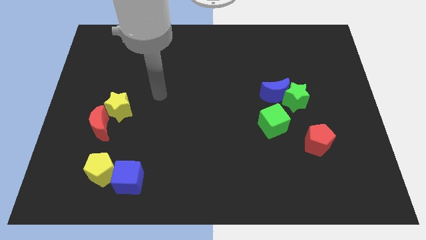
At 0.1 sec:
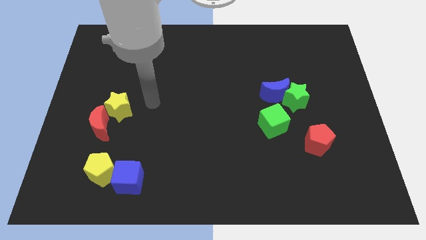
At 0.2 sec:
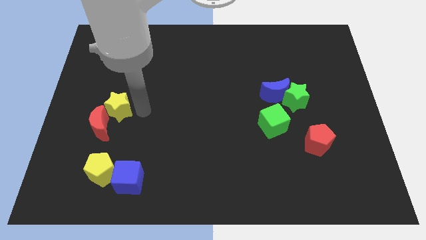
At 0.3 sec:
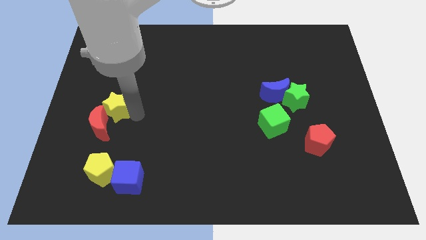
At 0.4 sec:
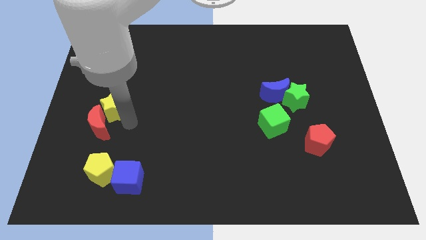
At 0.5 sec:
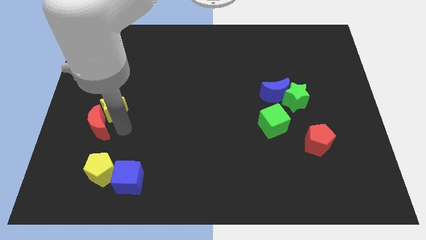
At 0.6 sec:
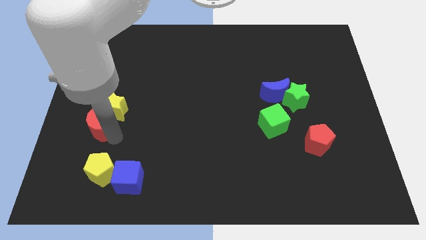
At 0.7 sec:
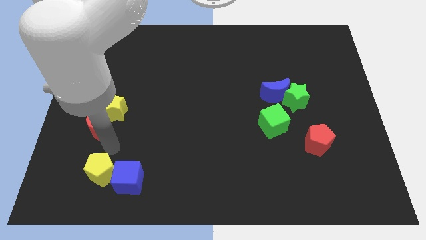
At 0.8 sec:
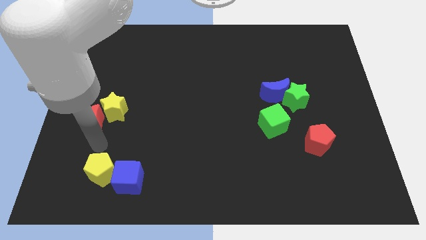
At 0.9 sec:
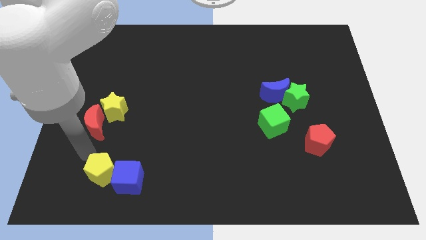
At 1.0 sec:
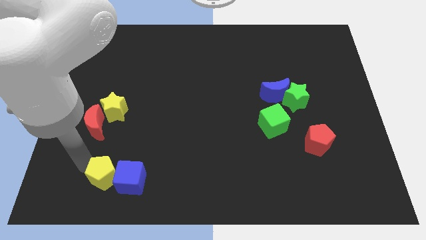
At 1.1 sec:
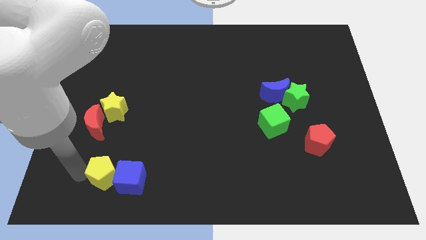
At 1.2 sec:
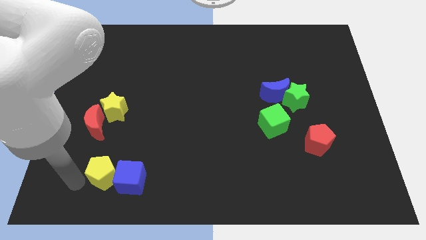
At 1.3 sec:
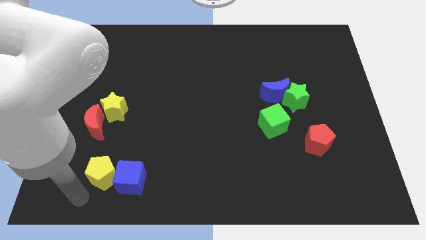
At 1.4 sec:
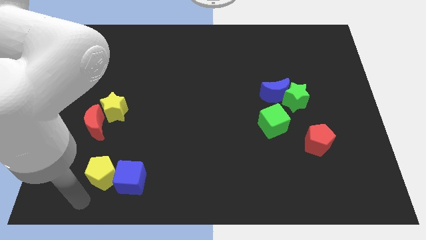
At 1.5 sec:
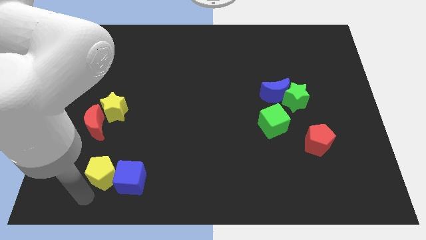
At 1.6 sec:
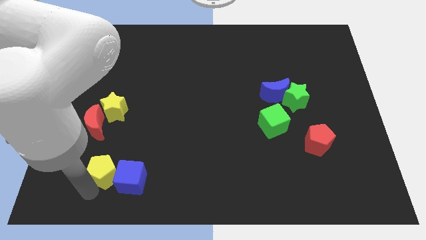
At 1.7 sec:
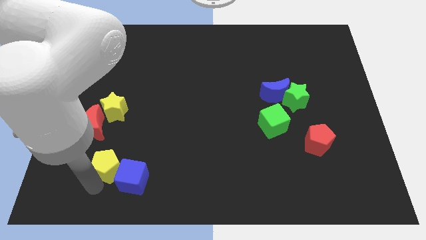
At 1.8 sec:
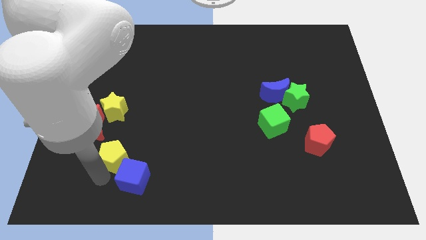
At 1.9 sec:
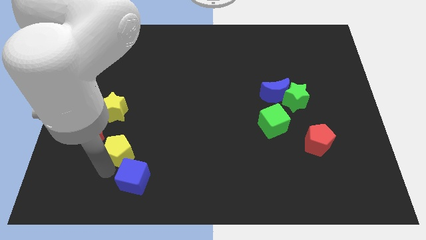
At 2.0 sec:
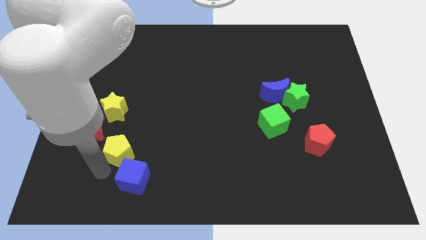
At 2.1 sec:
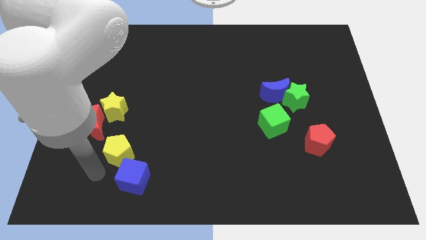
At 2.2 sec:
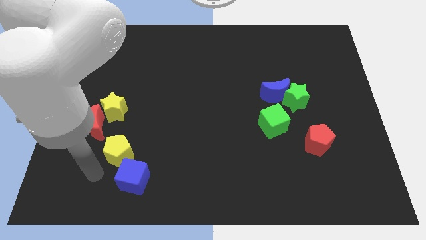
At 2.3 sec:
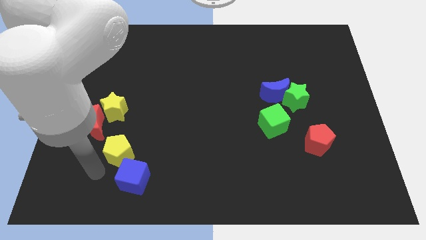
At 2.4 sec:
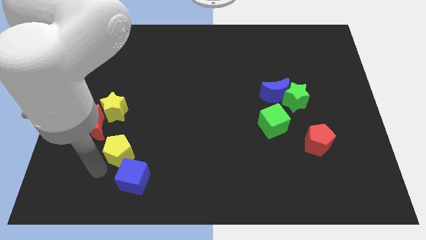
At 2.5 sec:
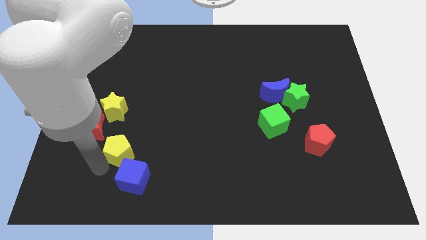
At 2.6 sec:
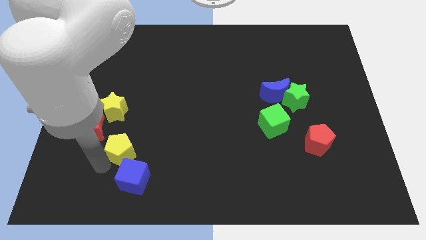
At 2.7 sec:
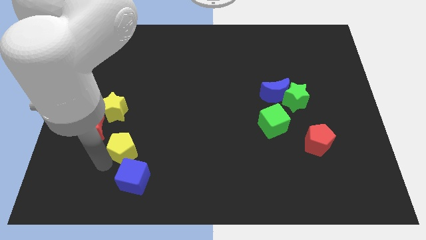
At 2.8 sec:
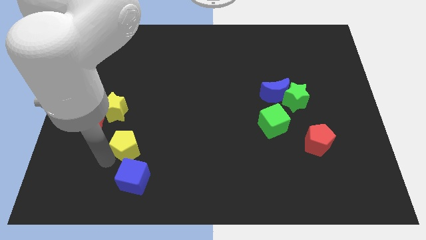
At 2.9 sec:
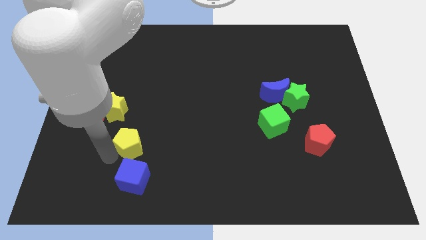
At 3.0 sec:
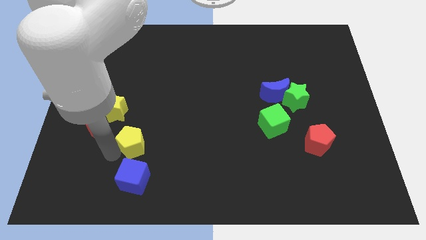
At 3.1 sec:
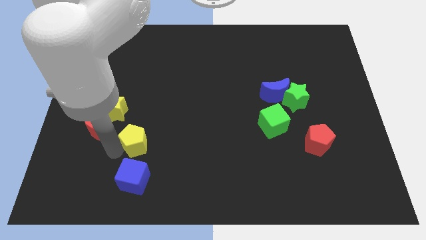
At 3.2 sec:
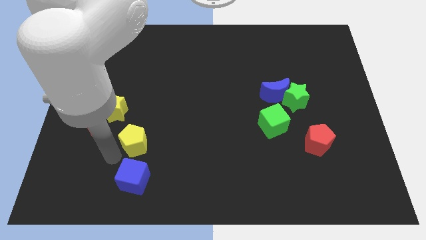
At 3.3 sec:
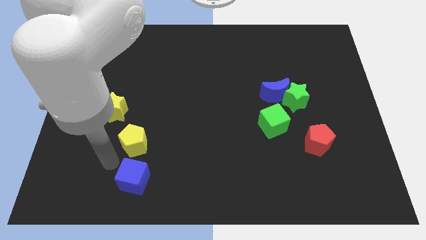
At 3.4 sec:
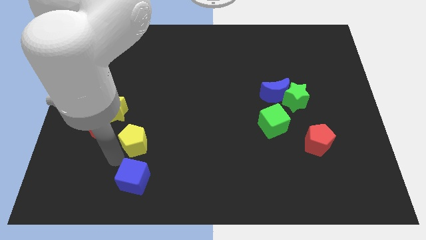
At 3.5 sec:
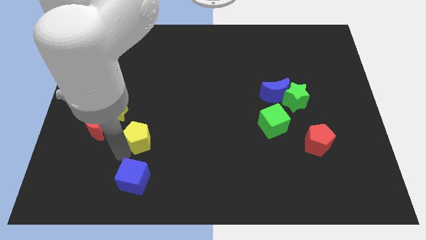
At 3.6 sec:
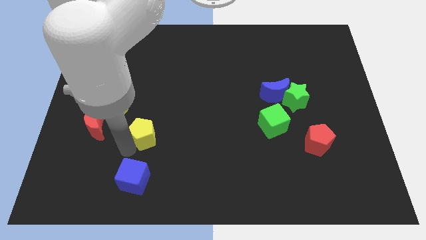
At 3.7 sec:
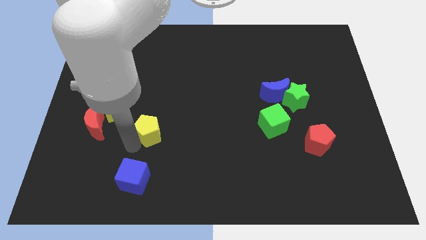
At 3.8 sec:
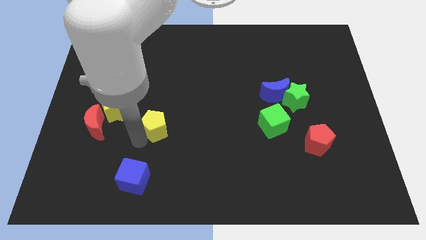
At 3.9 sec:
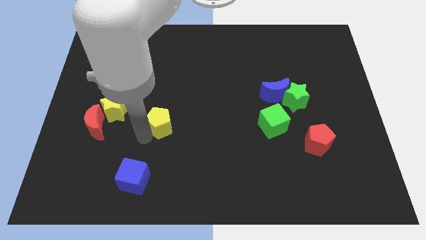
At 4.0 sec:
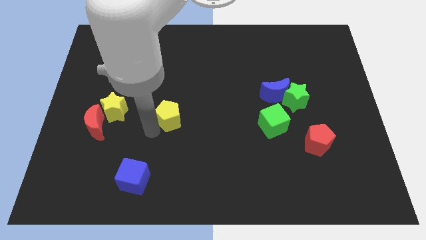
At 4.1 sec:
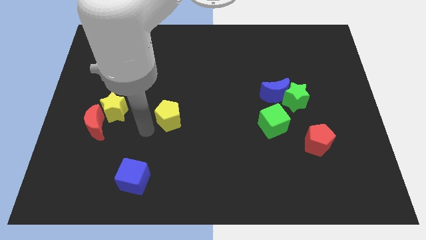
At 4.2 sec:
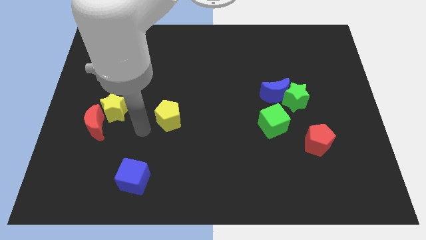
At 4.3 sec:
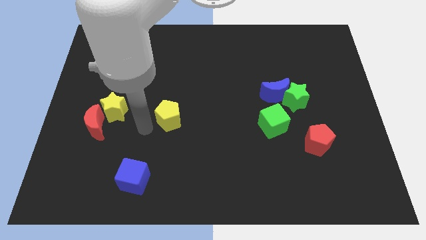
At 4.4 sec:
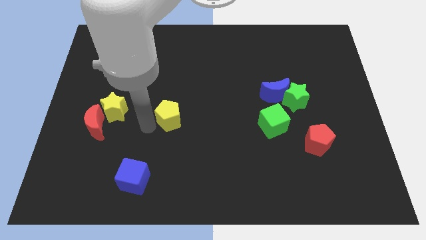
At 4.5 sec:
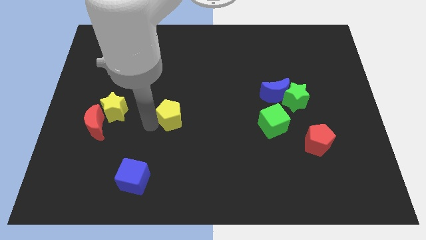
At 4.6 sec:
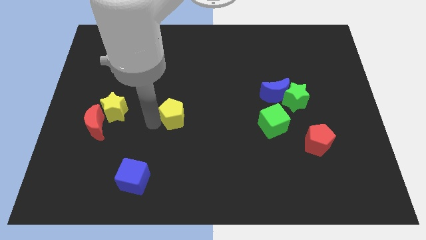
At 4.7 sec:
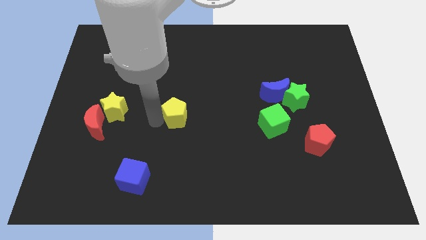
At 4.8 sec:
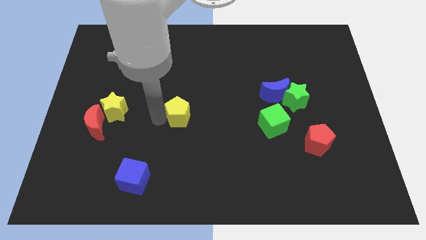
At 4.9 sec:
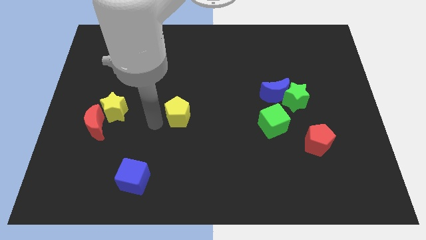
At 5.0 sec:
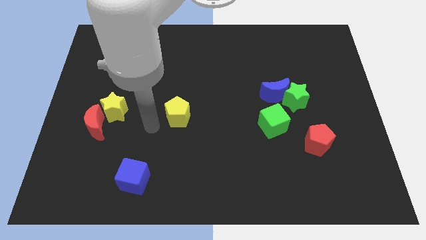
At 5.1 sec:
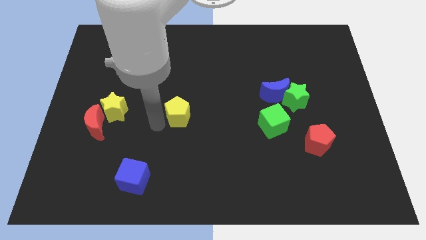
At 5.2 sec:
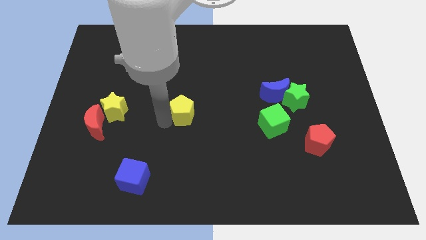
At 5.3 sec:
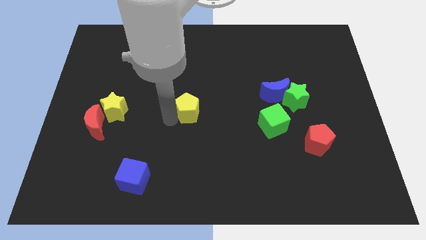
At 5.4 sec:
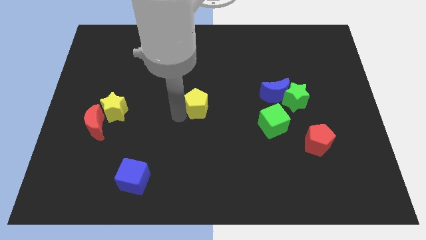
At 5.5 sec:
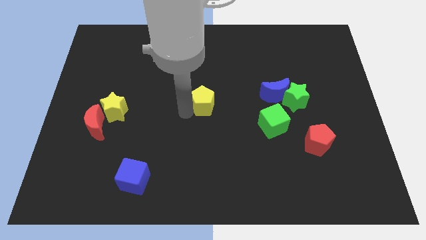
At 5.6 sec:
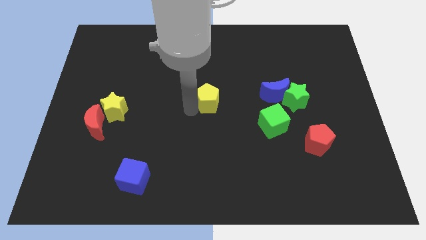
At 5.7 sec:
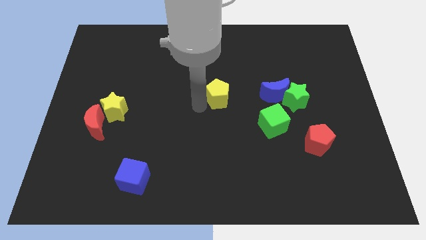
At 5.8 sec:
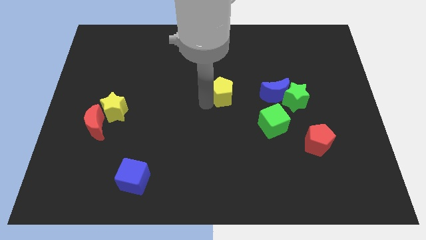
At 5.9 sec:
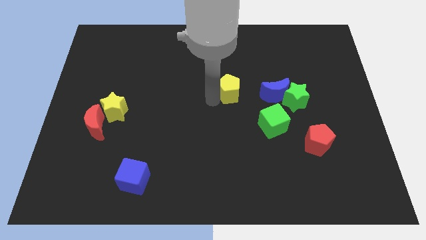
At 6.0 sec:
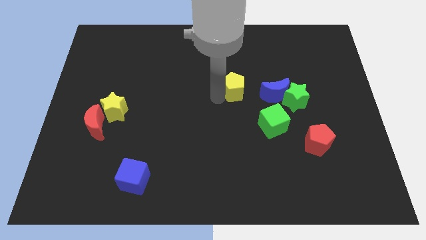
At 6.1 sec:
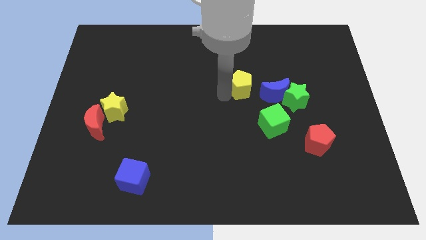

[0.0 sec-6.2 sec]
move the yellow pentagon to the top left side of the blue moon
